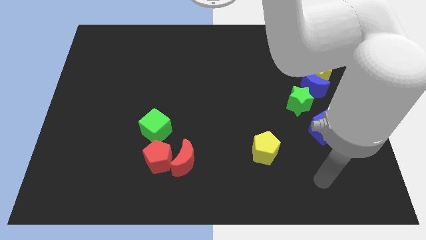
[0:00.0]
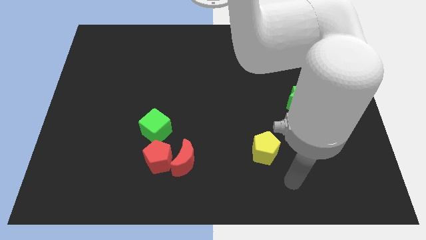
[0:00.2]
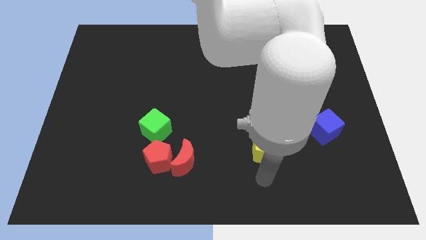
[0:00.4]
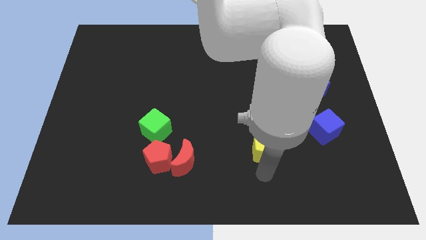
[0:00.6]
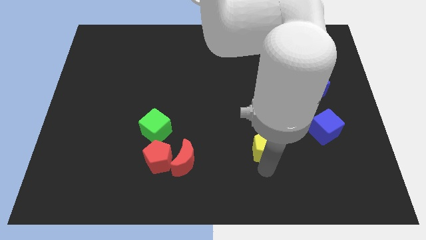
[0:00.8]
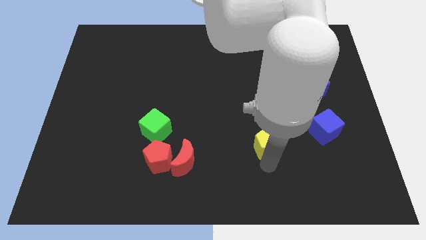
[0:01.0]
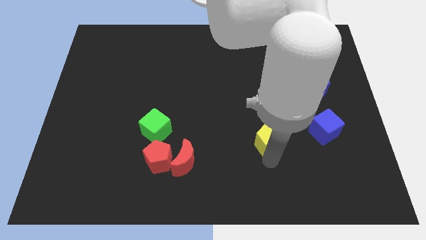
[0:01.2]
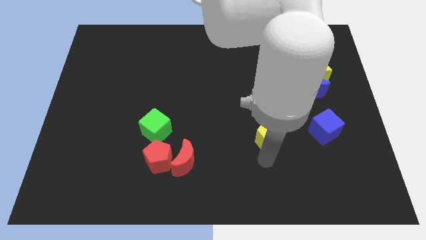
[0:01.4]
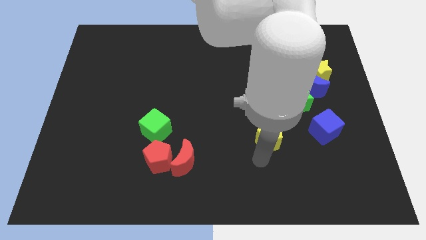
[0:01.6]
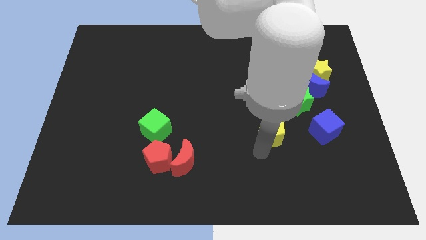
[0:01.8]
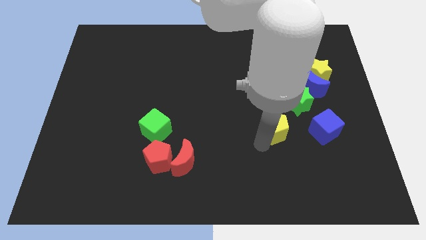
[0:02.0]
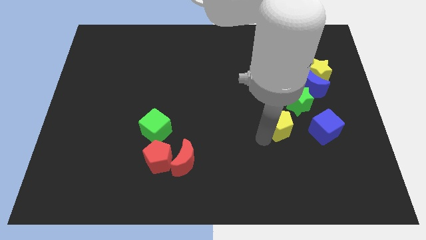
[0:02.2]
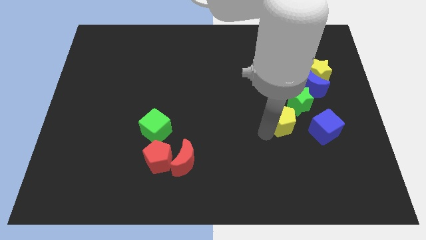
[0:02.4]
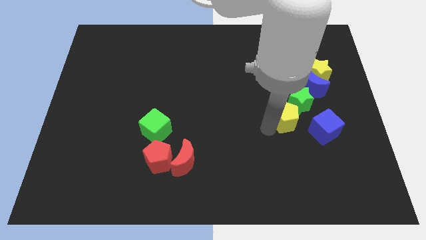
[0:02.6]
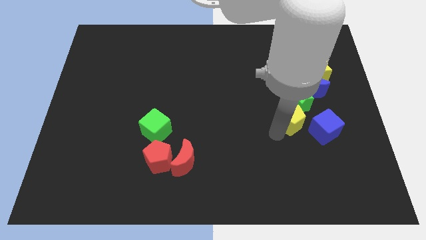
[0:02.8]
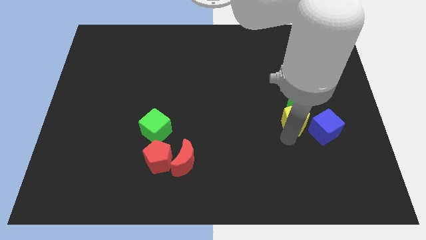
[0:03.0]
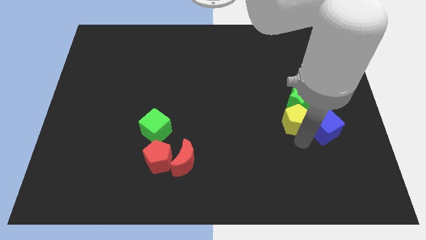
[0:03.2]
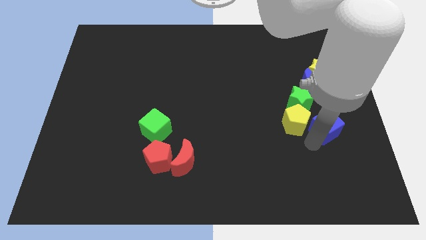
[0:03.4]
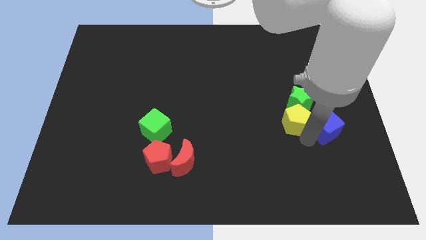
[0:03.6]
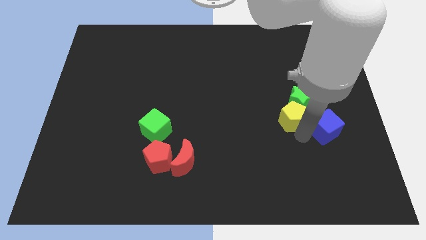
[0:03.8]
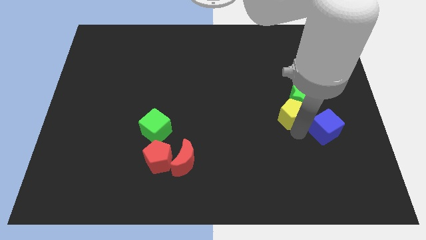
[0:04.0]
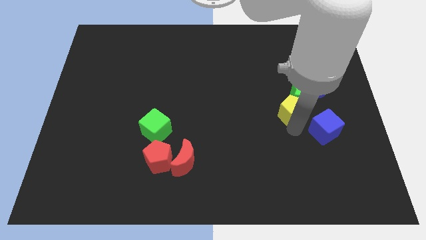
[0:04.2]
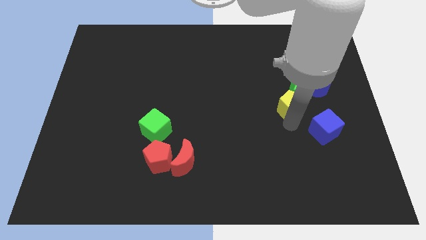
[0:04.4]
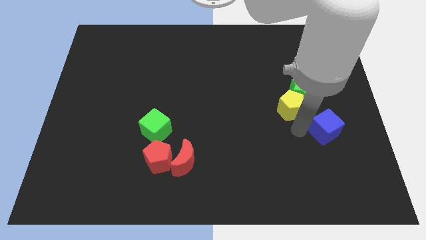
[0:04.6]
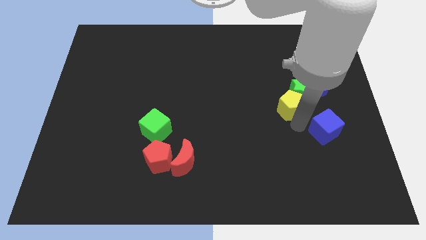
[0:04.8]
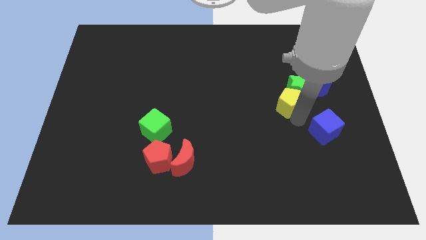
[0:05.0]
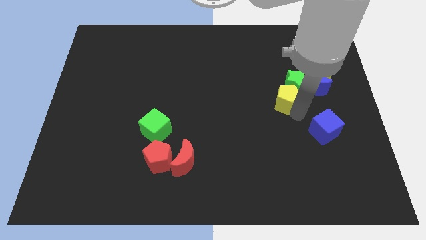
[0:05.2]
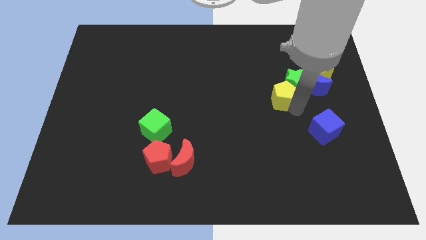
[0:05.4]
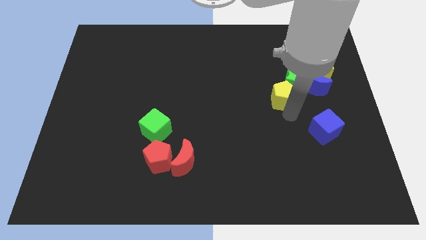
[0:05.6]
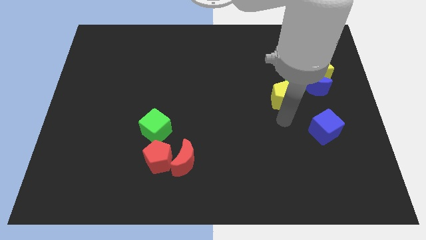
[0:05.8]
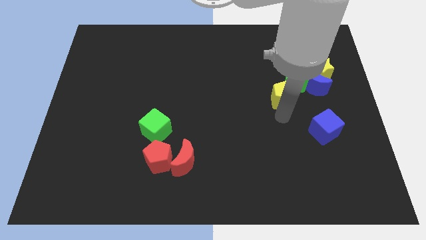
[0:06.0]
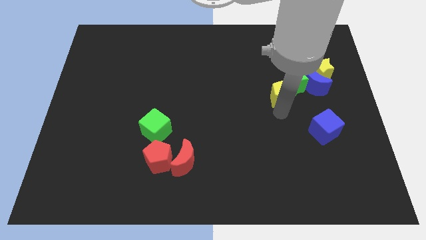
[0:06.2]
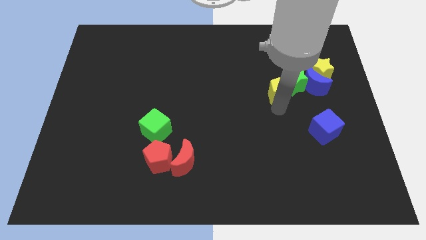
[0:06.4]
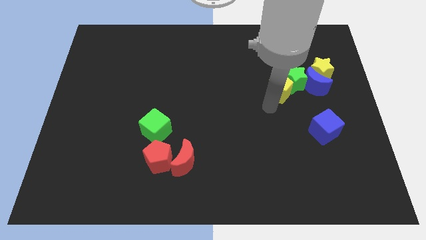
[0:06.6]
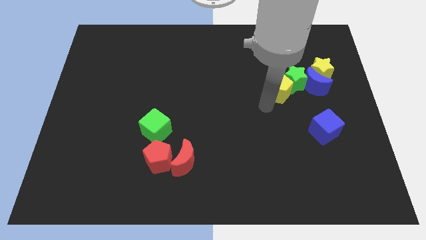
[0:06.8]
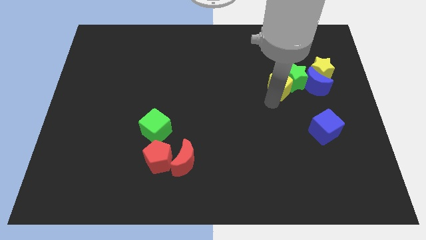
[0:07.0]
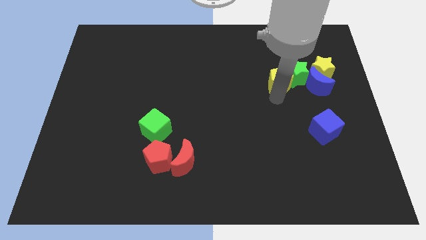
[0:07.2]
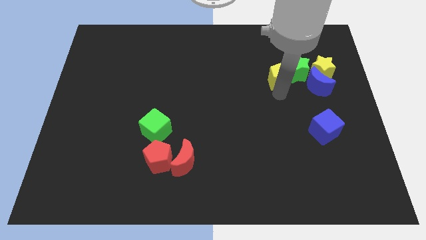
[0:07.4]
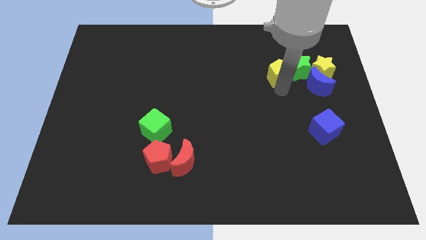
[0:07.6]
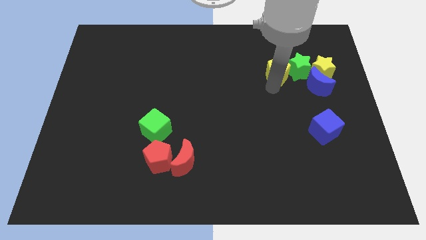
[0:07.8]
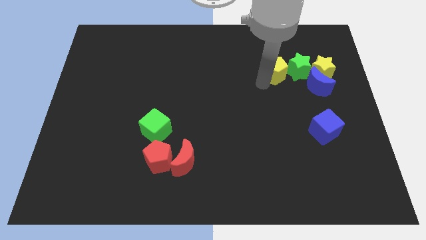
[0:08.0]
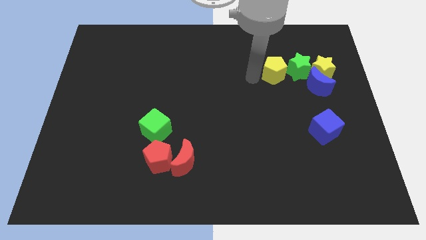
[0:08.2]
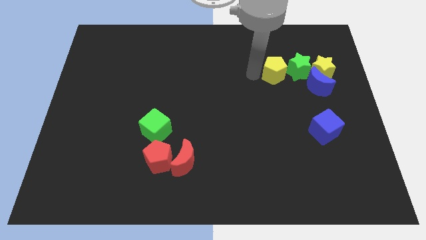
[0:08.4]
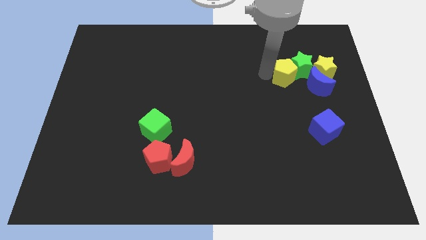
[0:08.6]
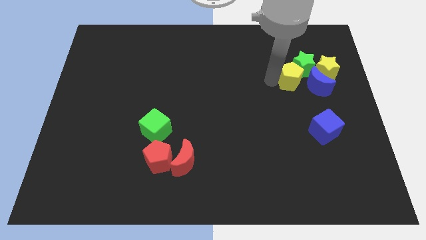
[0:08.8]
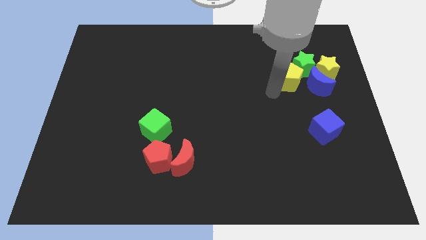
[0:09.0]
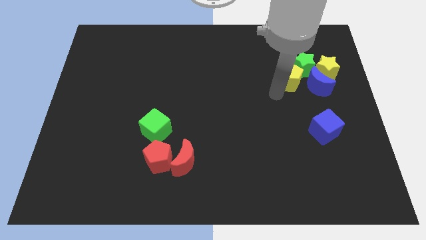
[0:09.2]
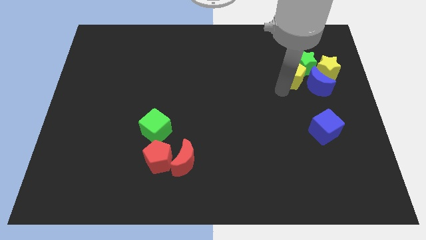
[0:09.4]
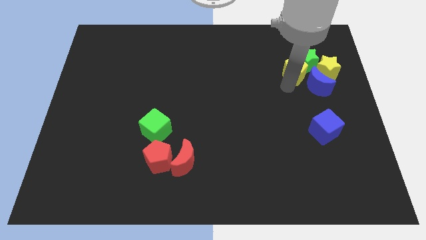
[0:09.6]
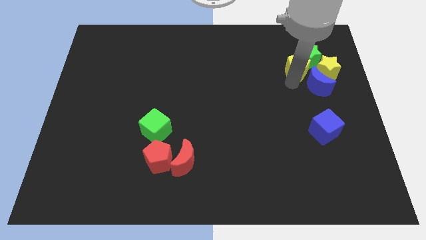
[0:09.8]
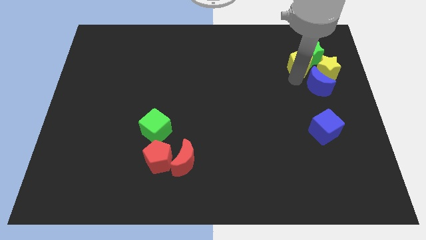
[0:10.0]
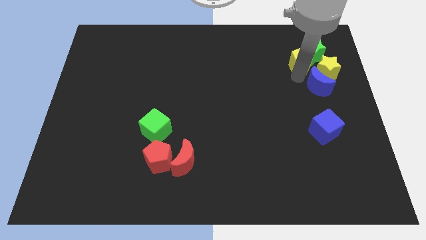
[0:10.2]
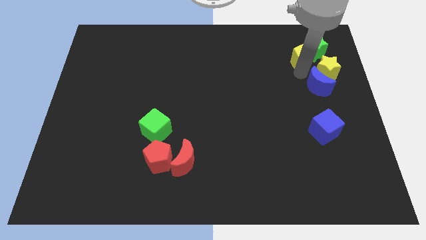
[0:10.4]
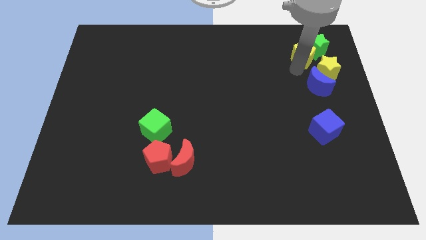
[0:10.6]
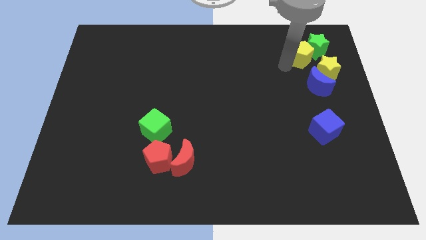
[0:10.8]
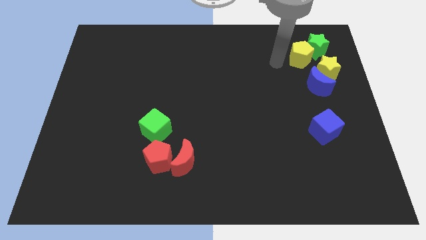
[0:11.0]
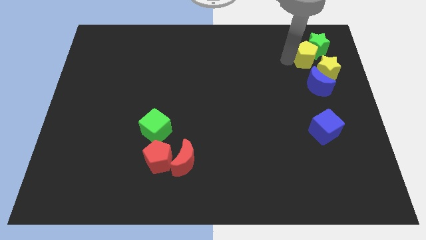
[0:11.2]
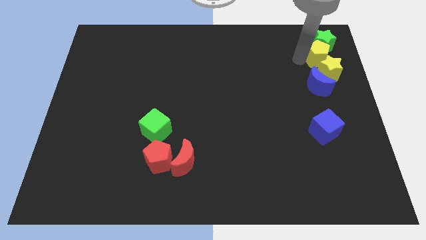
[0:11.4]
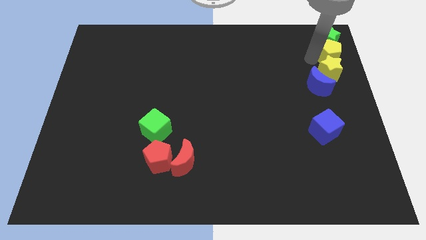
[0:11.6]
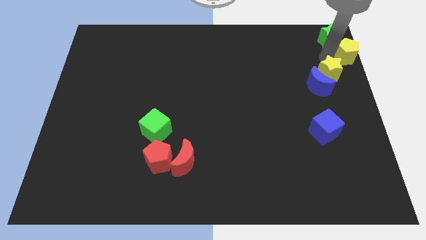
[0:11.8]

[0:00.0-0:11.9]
put the yellow pentagon to the top right
